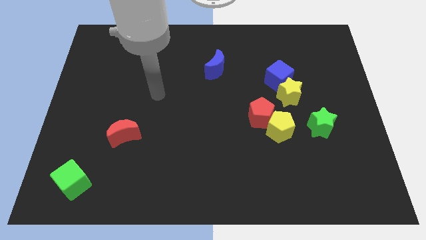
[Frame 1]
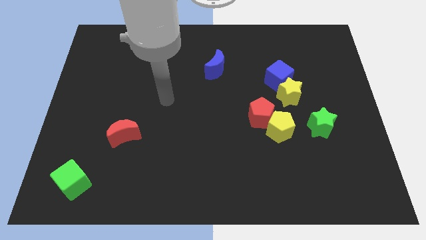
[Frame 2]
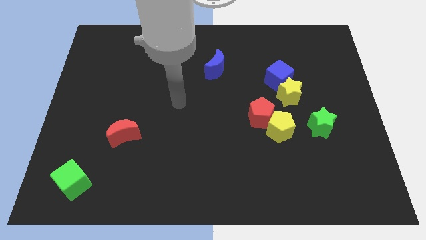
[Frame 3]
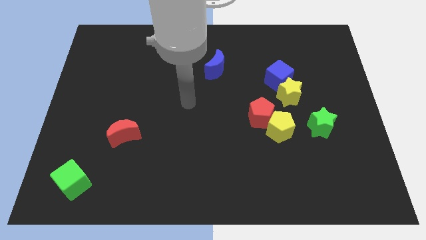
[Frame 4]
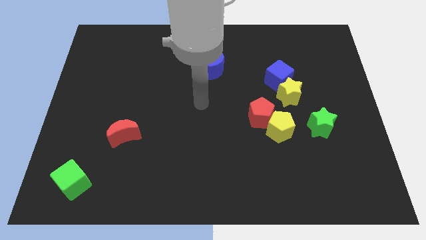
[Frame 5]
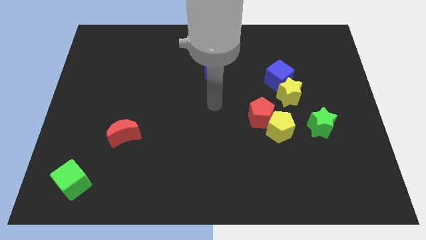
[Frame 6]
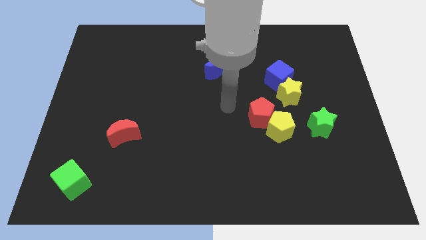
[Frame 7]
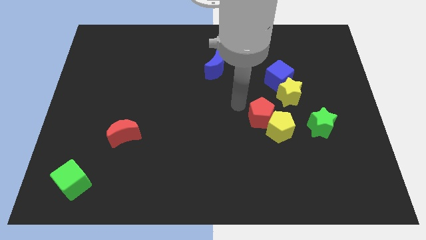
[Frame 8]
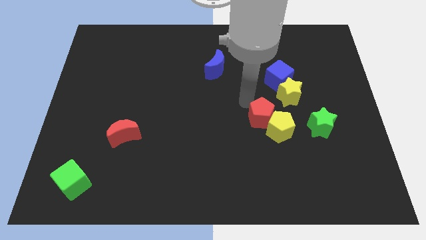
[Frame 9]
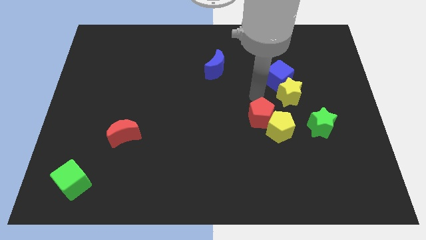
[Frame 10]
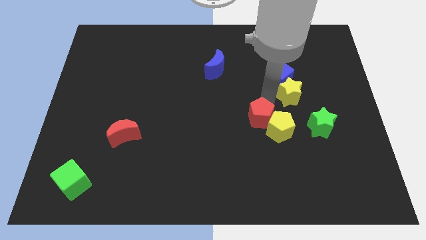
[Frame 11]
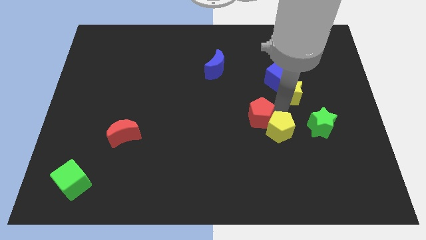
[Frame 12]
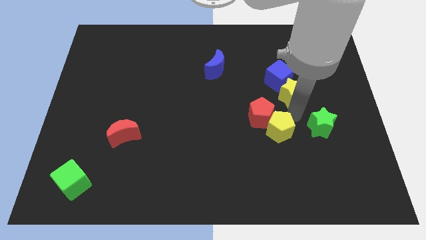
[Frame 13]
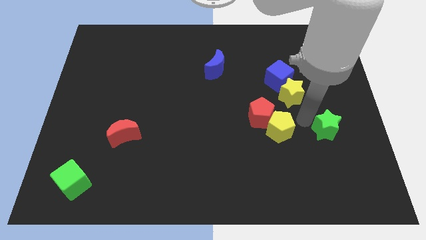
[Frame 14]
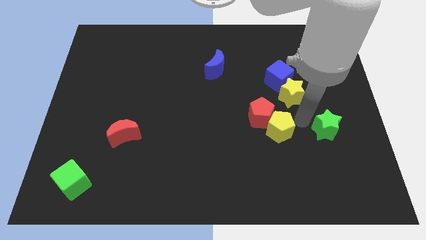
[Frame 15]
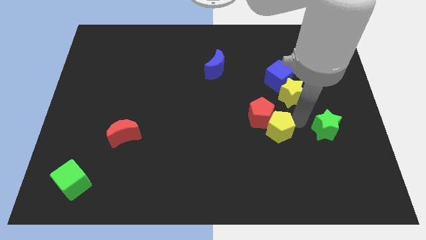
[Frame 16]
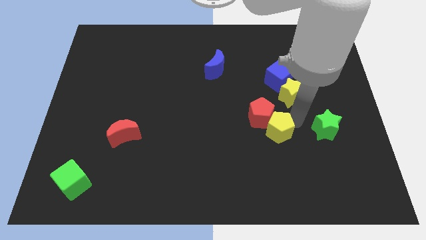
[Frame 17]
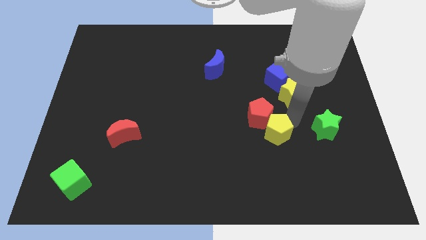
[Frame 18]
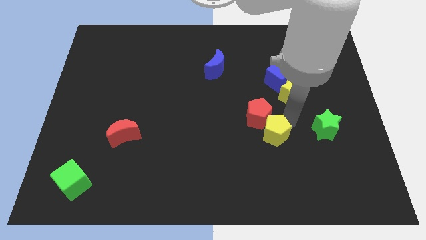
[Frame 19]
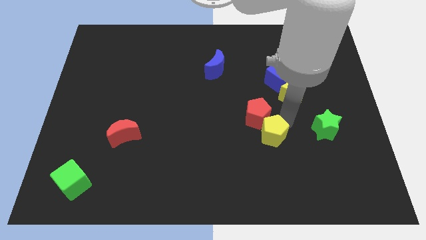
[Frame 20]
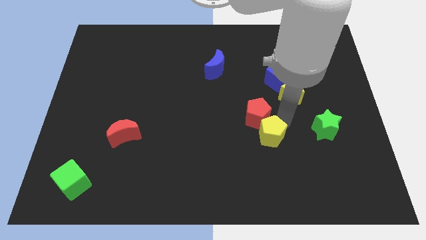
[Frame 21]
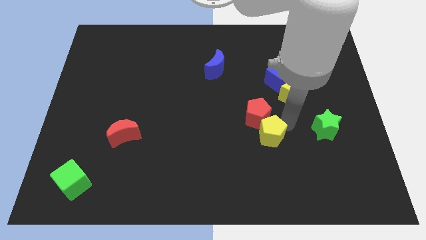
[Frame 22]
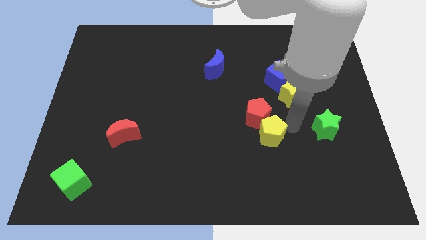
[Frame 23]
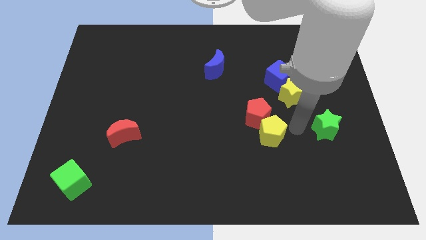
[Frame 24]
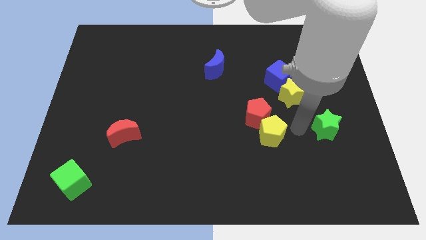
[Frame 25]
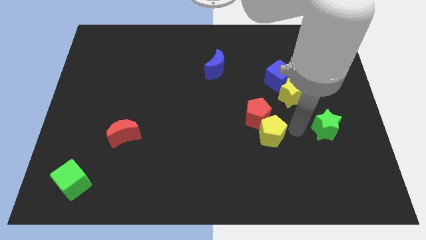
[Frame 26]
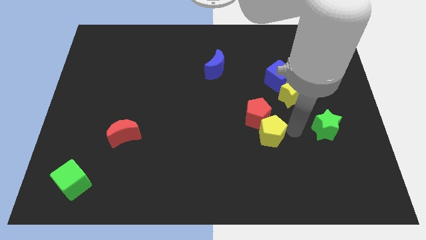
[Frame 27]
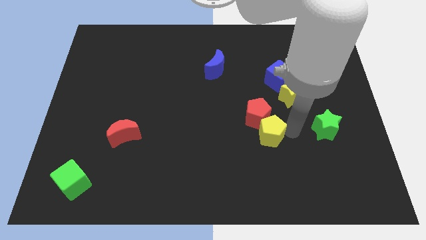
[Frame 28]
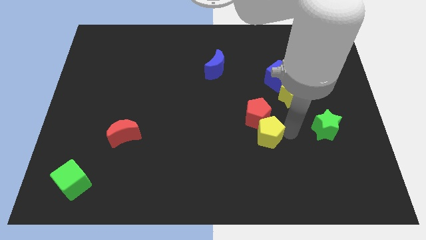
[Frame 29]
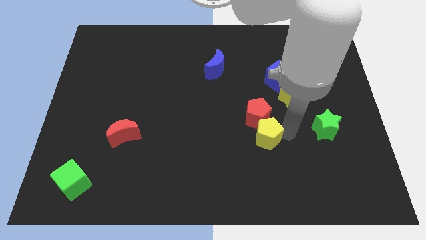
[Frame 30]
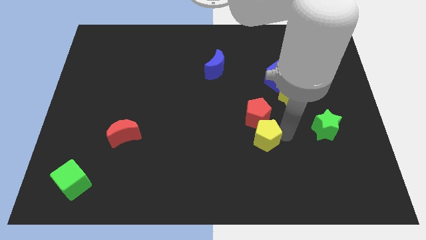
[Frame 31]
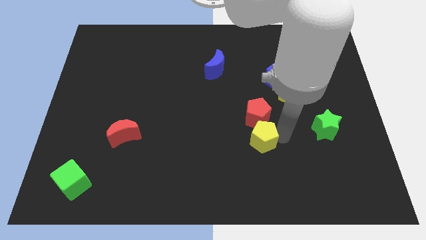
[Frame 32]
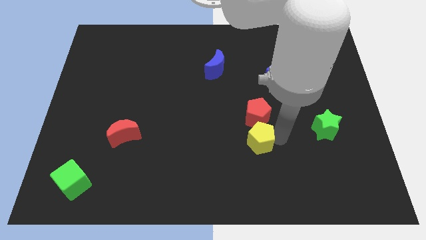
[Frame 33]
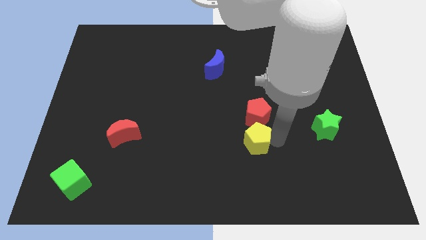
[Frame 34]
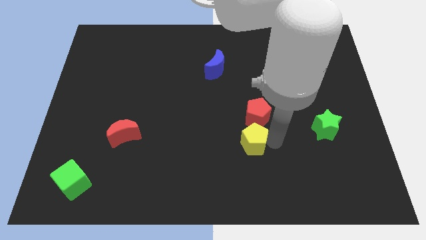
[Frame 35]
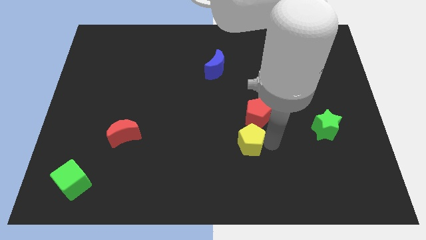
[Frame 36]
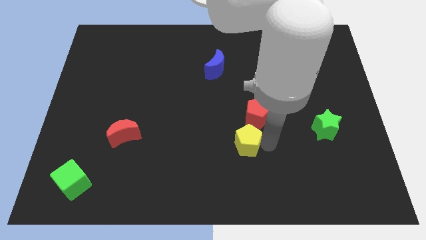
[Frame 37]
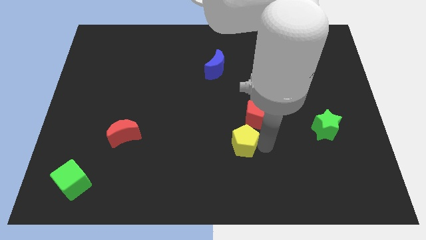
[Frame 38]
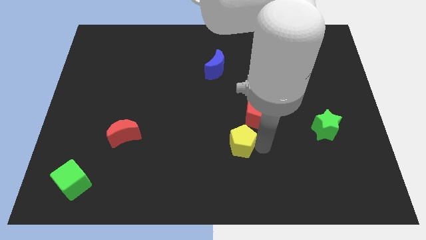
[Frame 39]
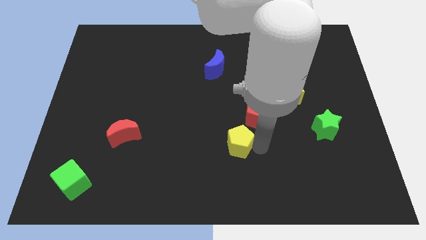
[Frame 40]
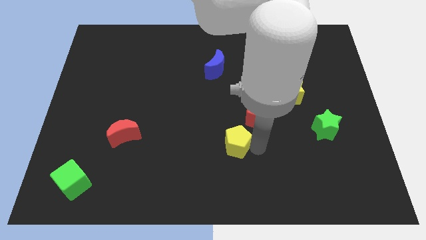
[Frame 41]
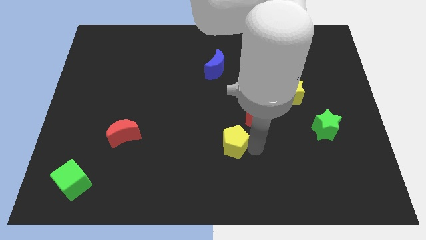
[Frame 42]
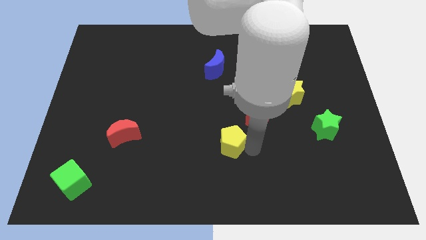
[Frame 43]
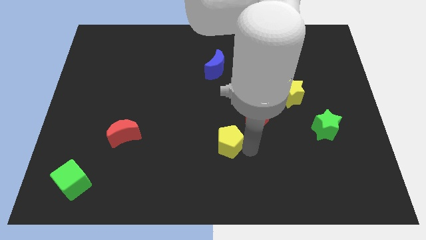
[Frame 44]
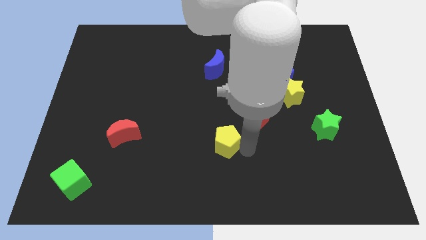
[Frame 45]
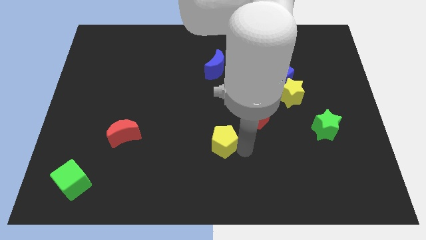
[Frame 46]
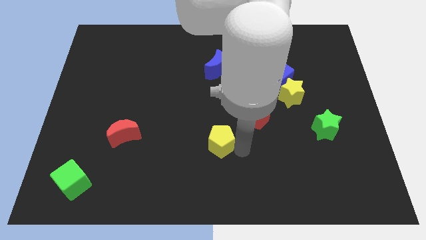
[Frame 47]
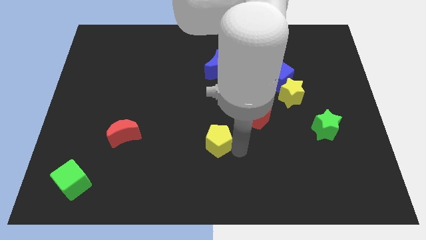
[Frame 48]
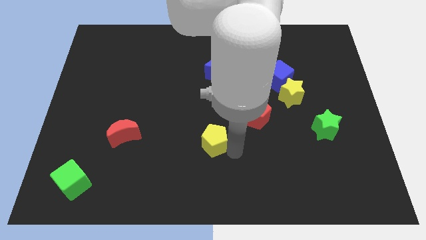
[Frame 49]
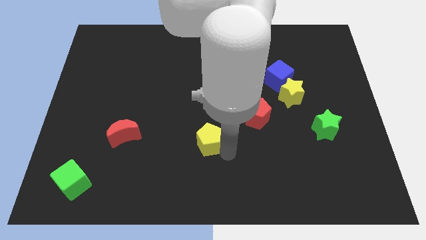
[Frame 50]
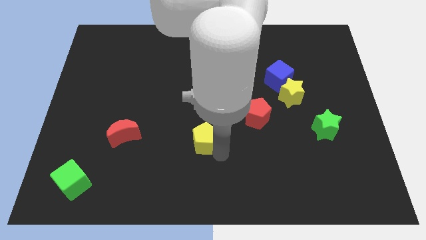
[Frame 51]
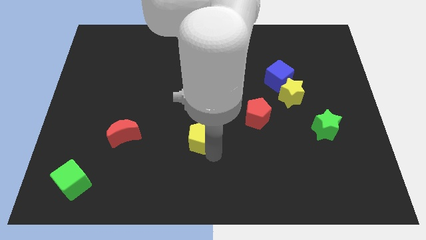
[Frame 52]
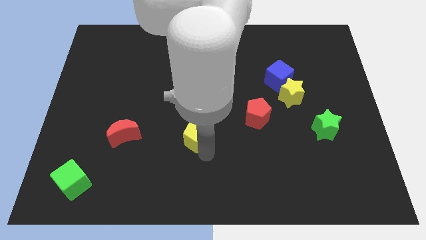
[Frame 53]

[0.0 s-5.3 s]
put the yellow pentagon to the right of the red moon

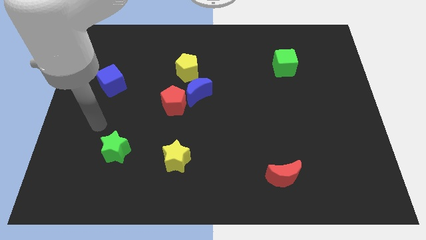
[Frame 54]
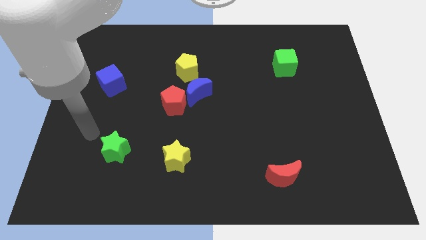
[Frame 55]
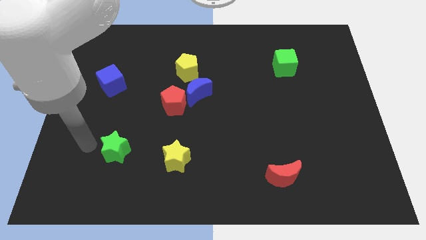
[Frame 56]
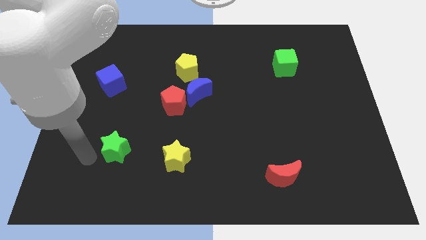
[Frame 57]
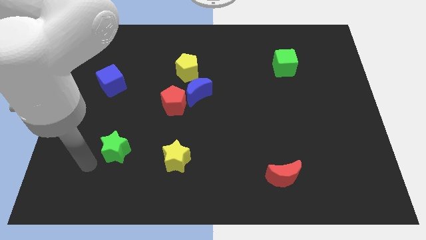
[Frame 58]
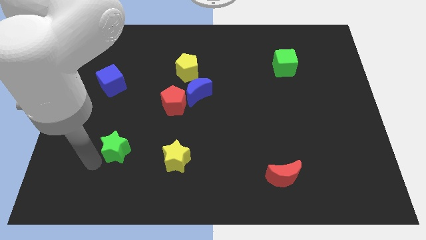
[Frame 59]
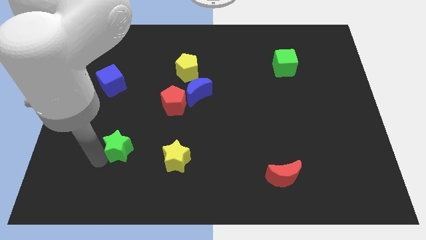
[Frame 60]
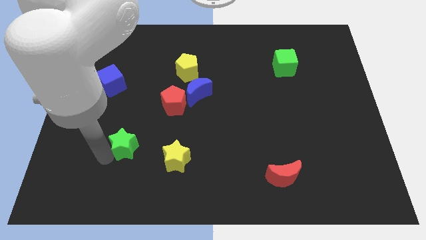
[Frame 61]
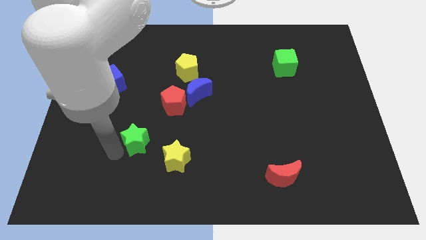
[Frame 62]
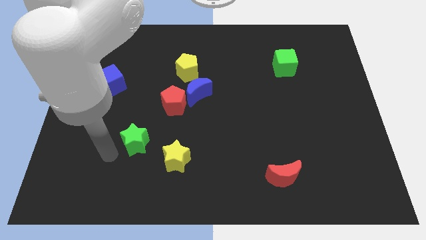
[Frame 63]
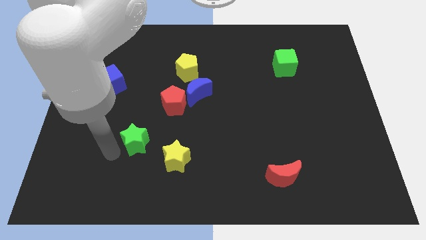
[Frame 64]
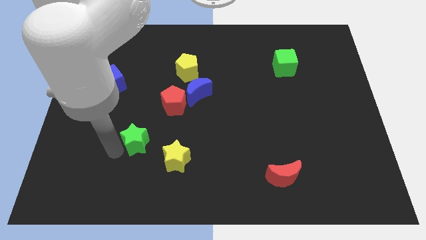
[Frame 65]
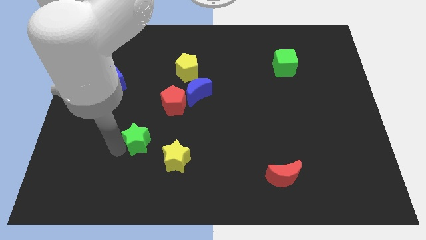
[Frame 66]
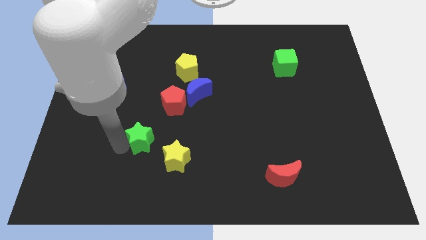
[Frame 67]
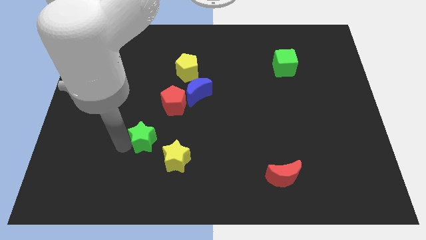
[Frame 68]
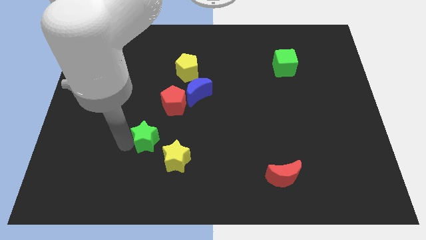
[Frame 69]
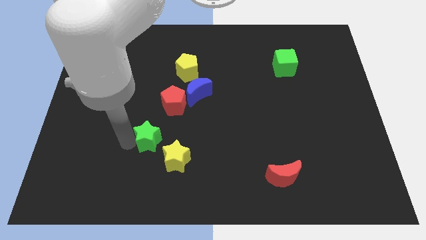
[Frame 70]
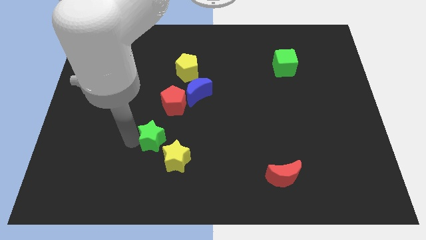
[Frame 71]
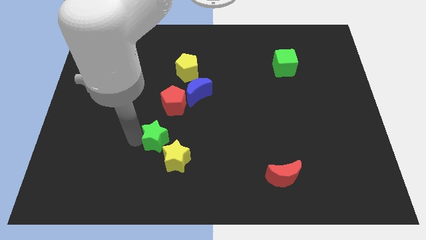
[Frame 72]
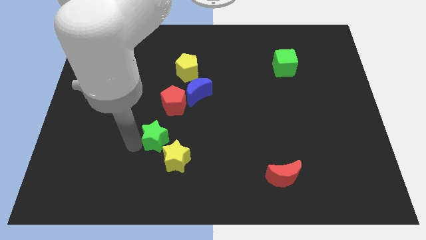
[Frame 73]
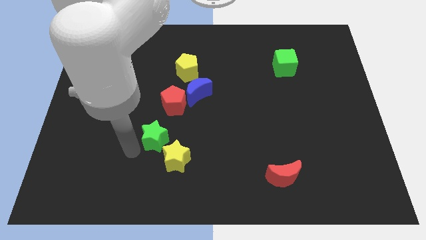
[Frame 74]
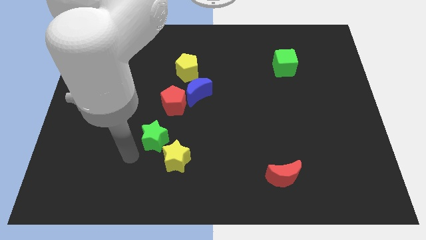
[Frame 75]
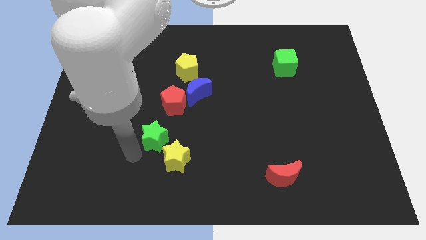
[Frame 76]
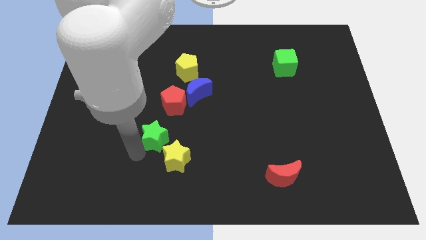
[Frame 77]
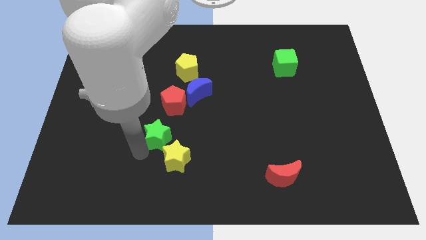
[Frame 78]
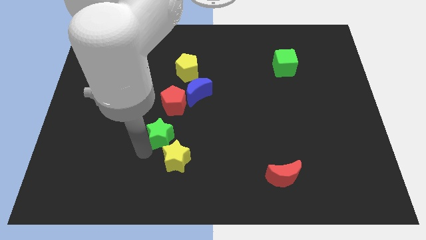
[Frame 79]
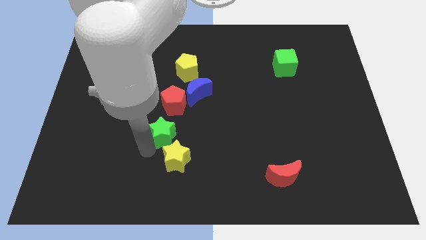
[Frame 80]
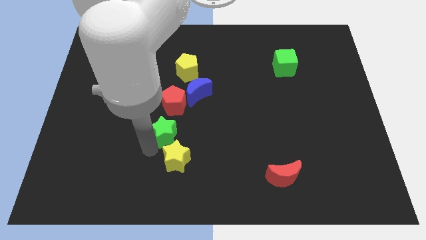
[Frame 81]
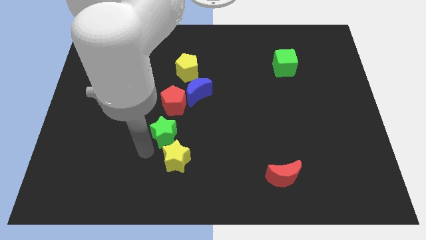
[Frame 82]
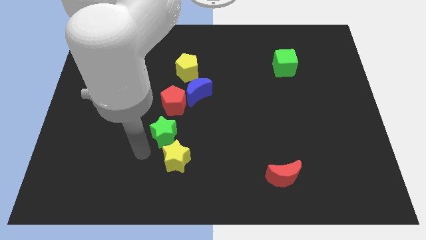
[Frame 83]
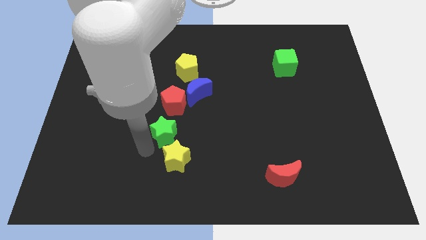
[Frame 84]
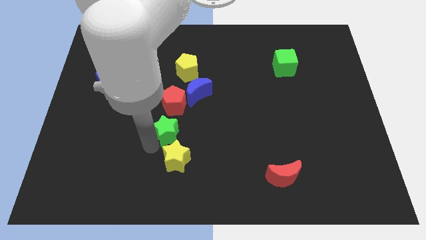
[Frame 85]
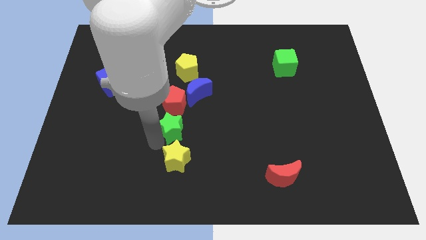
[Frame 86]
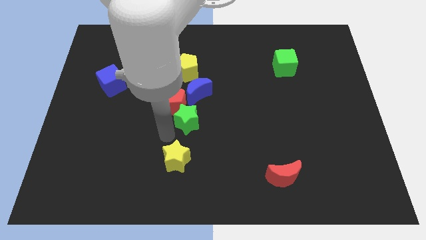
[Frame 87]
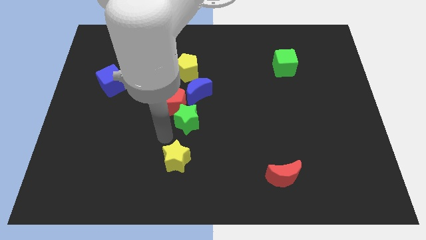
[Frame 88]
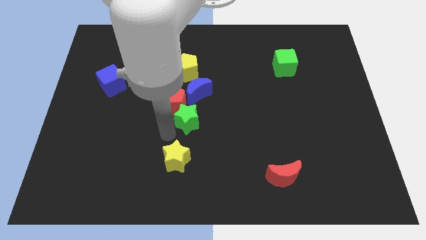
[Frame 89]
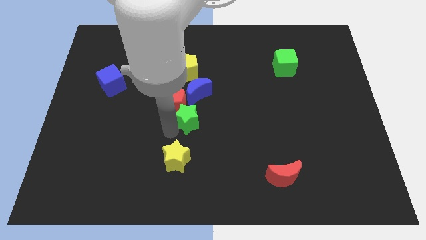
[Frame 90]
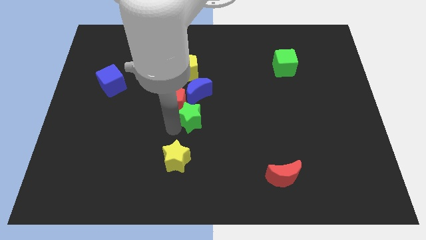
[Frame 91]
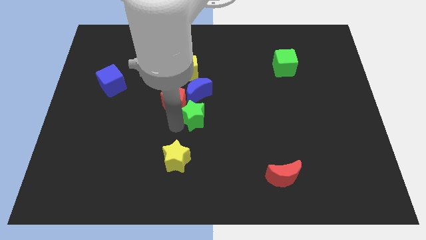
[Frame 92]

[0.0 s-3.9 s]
push the green star to the right of the red pentagon
